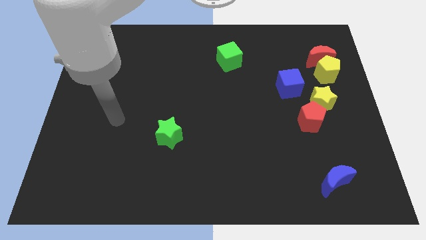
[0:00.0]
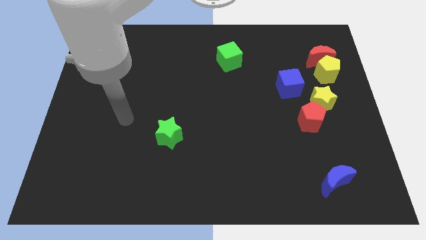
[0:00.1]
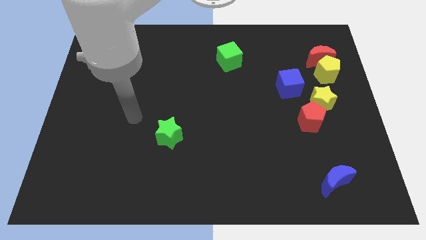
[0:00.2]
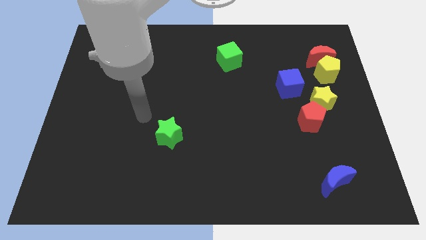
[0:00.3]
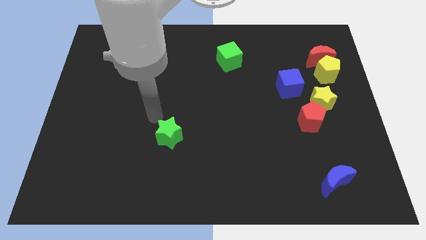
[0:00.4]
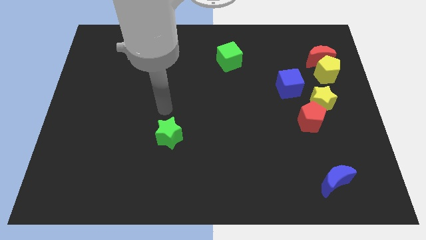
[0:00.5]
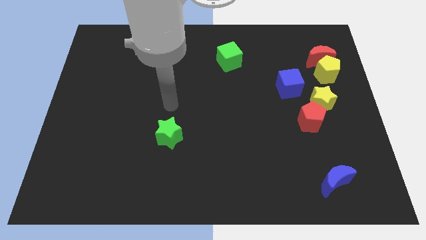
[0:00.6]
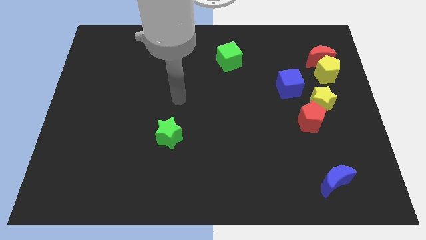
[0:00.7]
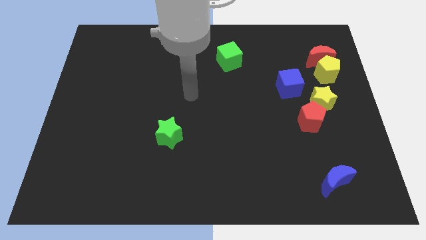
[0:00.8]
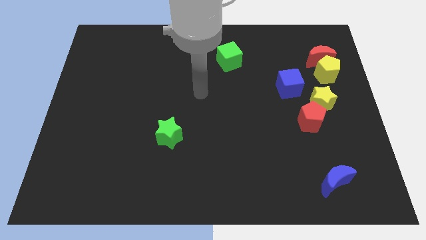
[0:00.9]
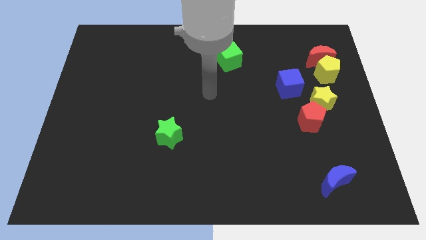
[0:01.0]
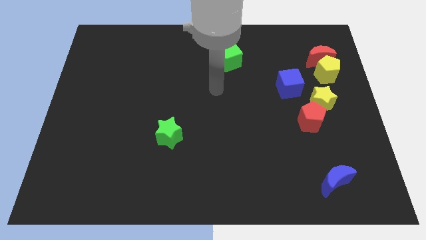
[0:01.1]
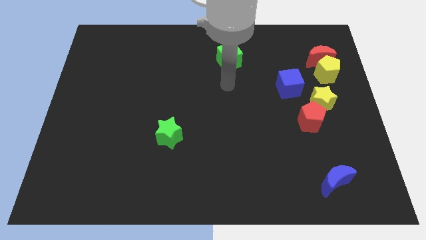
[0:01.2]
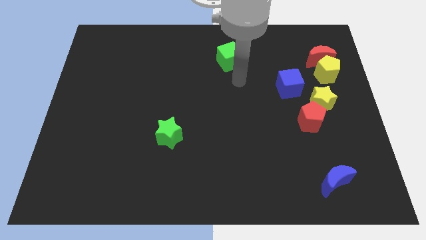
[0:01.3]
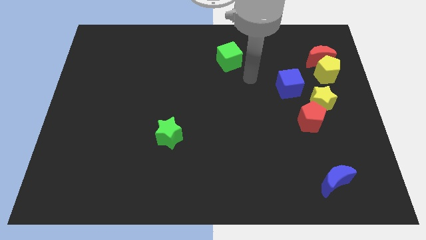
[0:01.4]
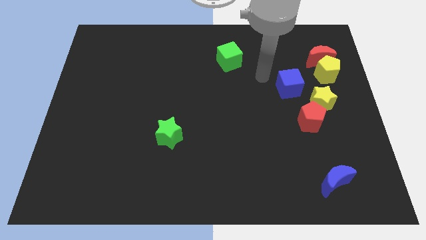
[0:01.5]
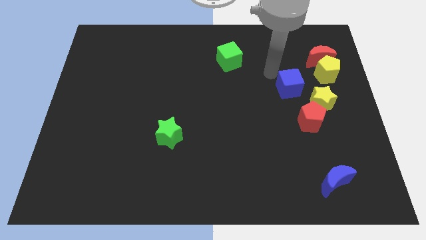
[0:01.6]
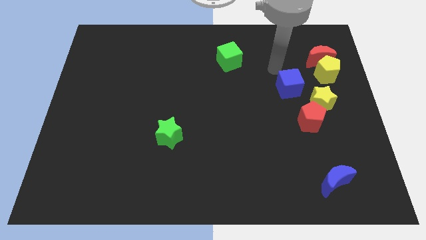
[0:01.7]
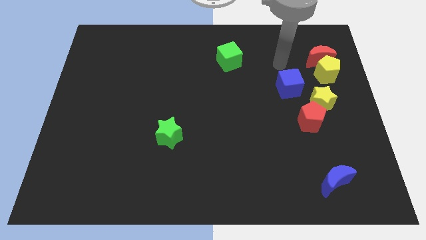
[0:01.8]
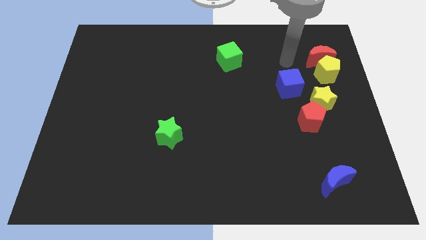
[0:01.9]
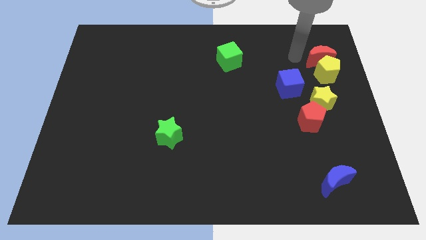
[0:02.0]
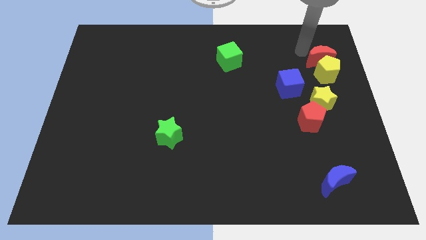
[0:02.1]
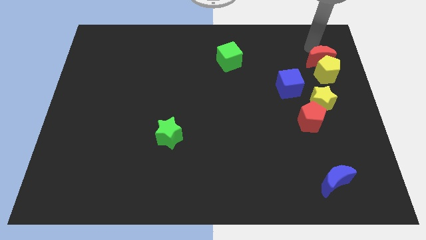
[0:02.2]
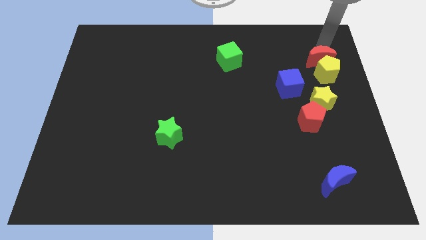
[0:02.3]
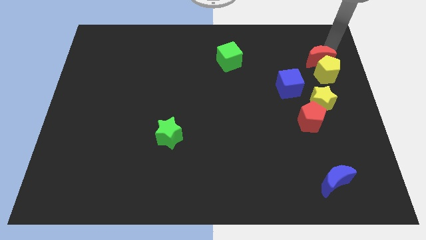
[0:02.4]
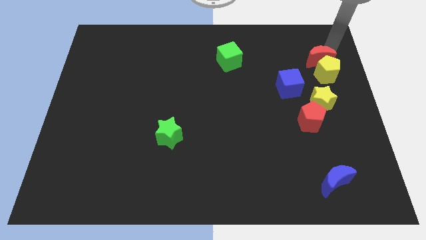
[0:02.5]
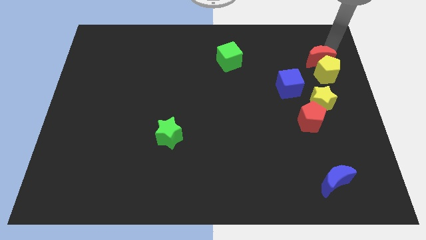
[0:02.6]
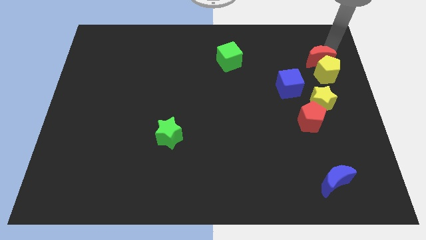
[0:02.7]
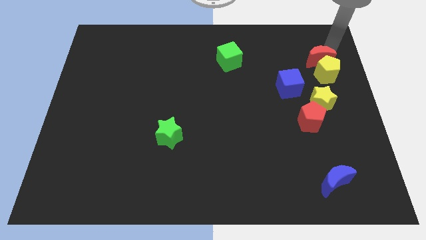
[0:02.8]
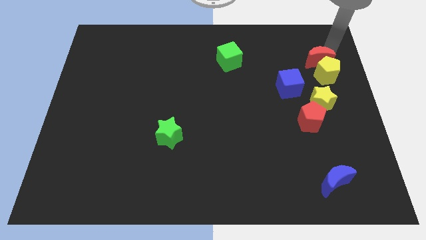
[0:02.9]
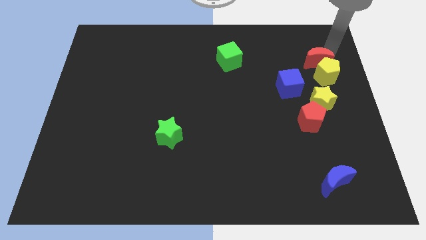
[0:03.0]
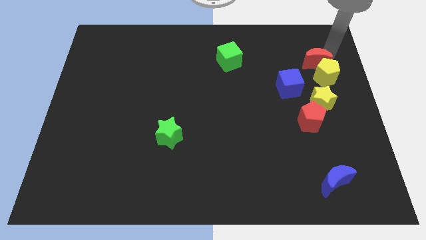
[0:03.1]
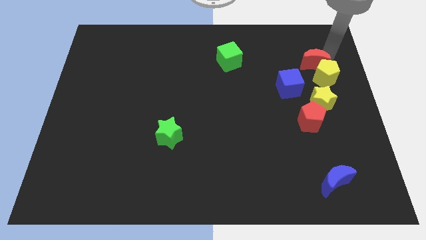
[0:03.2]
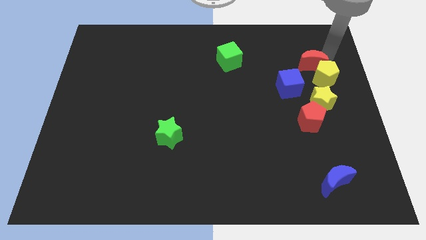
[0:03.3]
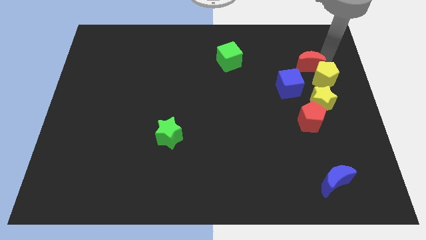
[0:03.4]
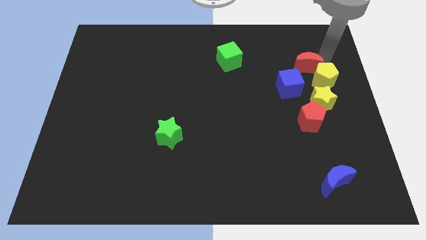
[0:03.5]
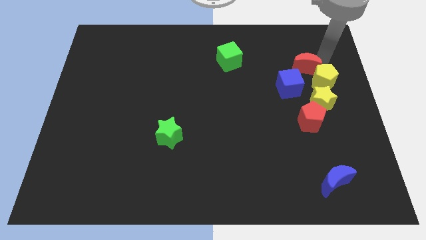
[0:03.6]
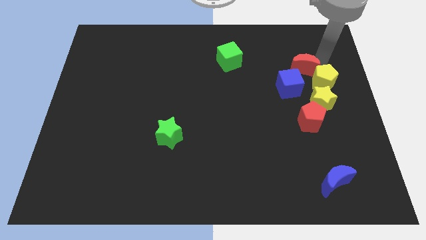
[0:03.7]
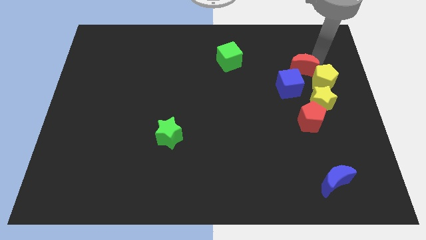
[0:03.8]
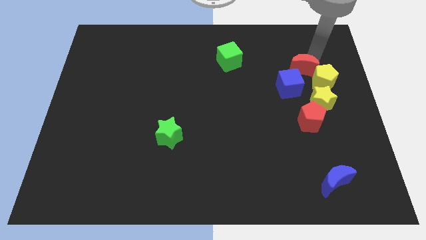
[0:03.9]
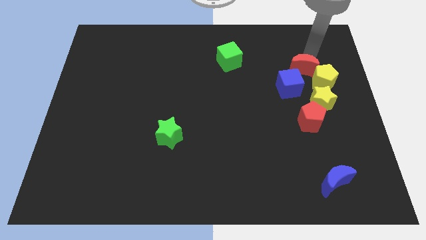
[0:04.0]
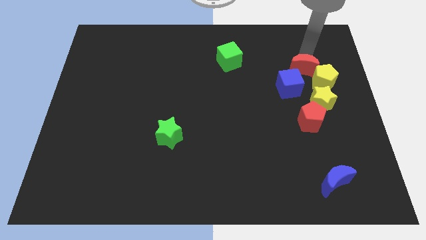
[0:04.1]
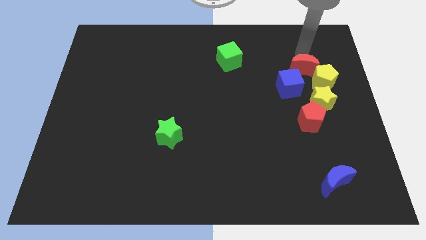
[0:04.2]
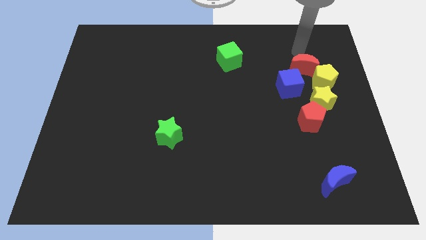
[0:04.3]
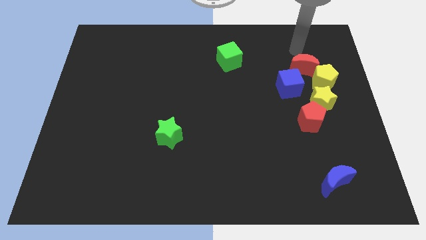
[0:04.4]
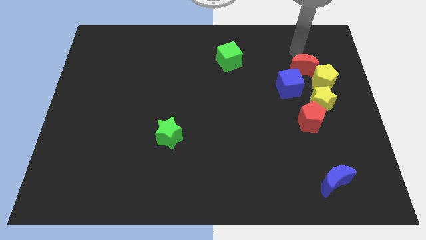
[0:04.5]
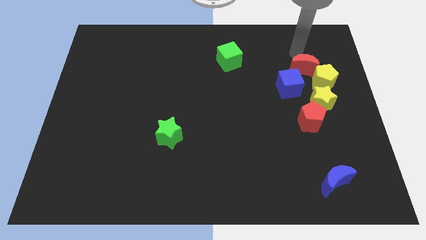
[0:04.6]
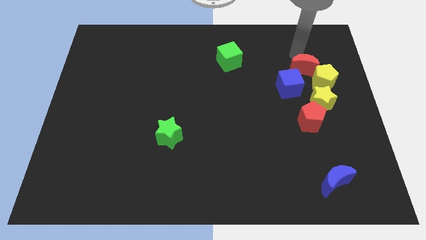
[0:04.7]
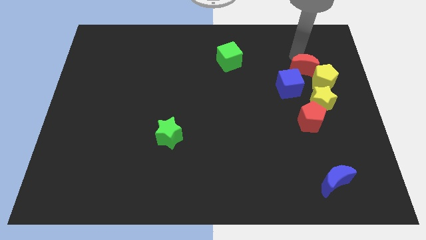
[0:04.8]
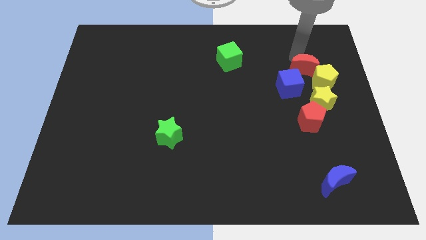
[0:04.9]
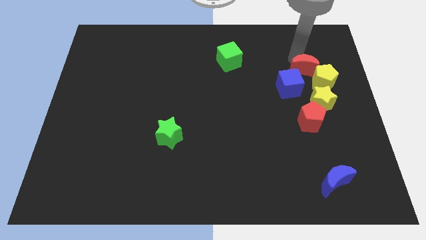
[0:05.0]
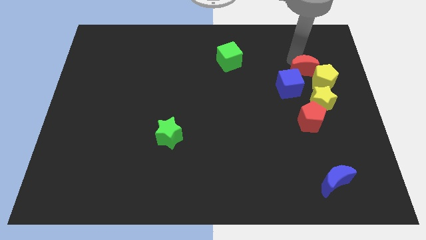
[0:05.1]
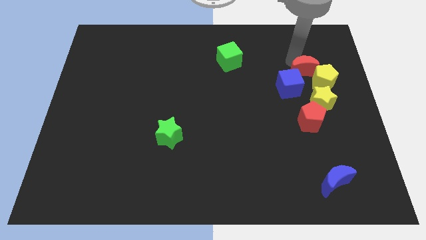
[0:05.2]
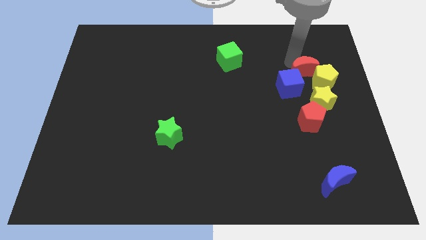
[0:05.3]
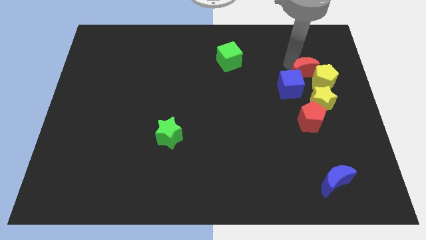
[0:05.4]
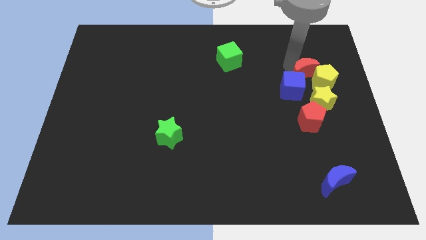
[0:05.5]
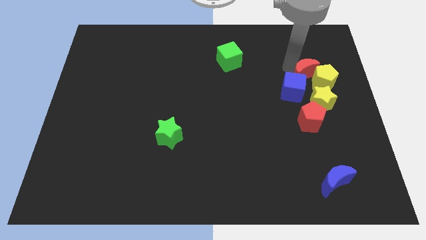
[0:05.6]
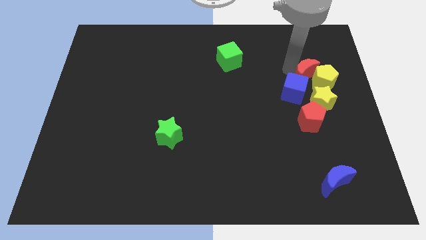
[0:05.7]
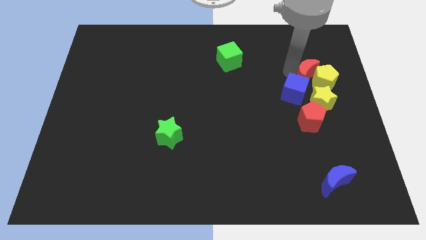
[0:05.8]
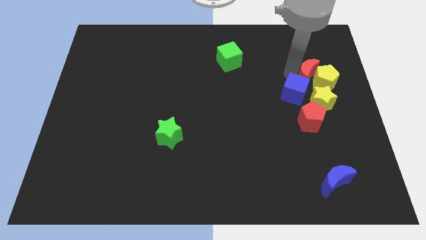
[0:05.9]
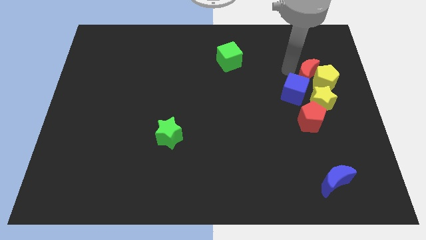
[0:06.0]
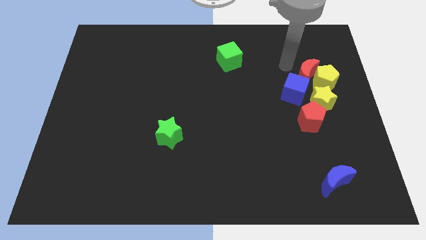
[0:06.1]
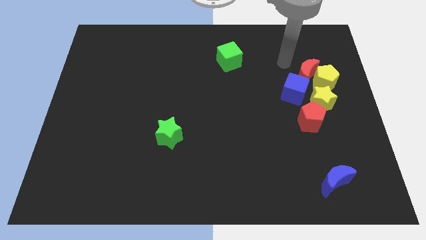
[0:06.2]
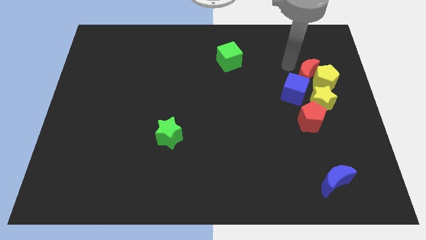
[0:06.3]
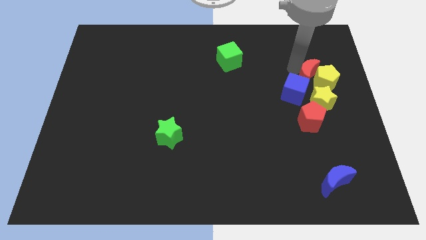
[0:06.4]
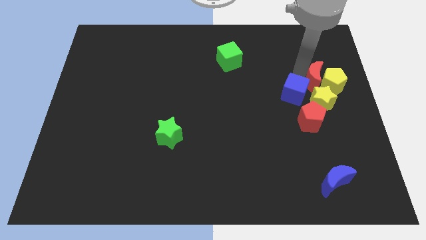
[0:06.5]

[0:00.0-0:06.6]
slide the red moon downwards a little

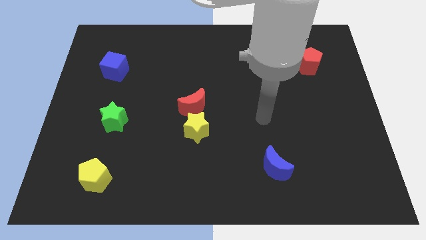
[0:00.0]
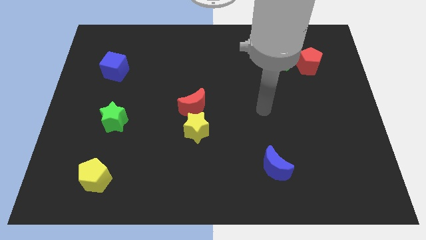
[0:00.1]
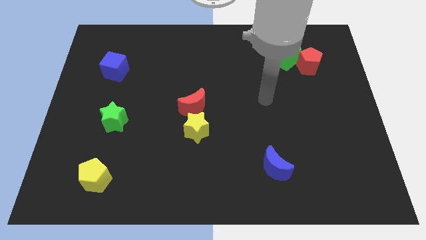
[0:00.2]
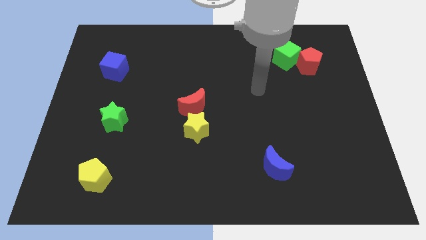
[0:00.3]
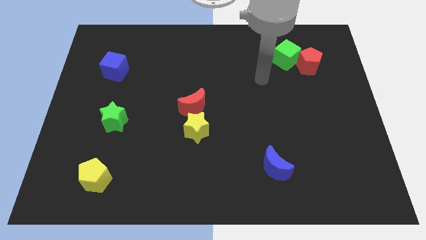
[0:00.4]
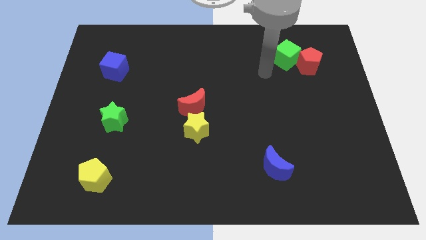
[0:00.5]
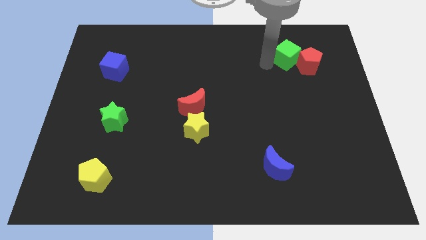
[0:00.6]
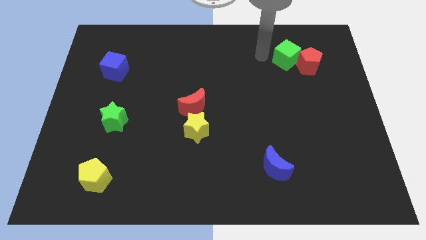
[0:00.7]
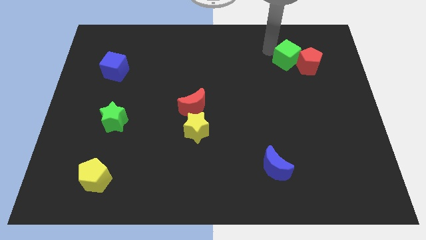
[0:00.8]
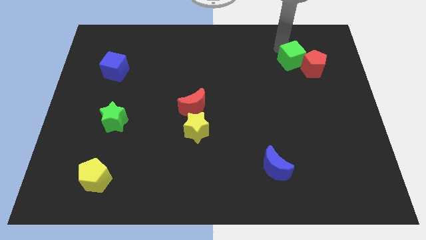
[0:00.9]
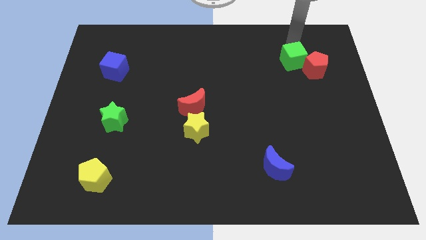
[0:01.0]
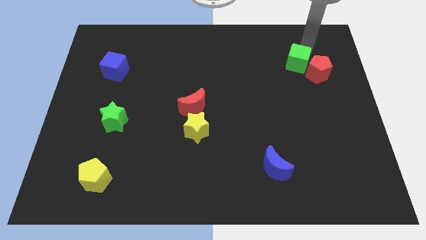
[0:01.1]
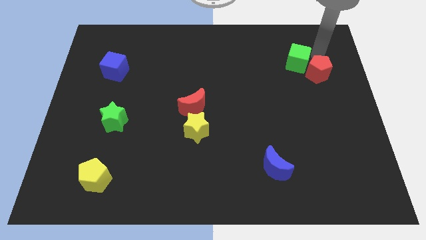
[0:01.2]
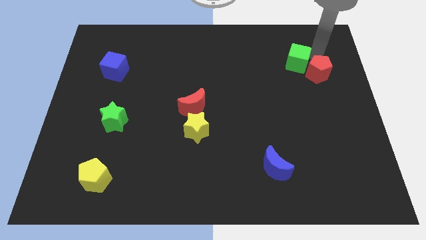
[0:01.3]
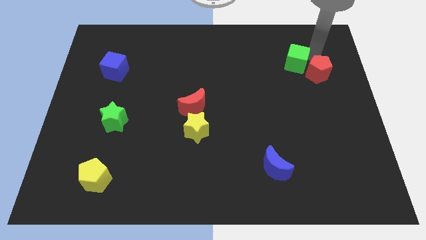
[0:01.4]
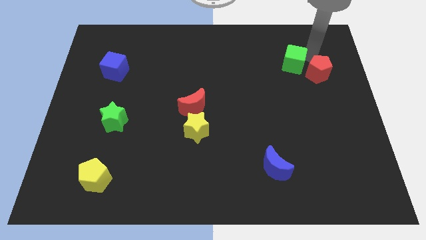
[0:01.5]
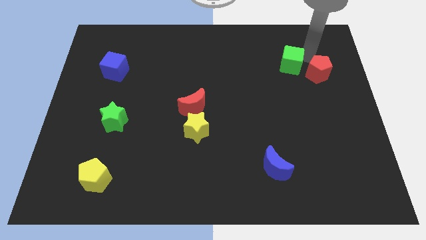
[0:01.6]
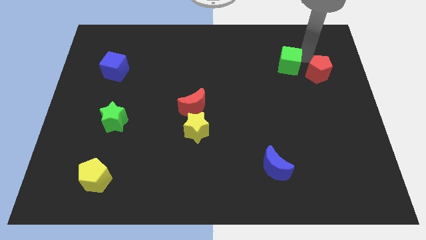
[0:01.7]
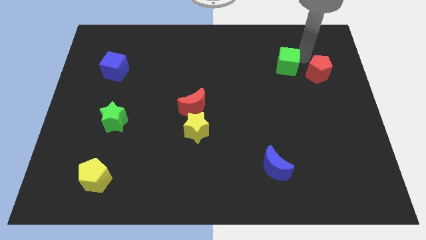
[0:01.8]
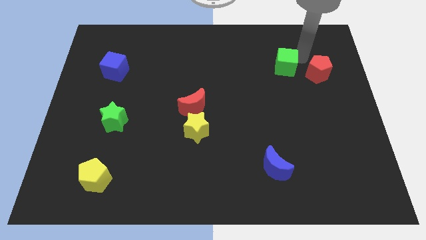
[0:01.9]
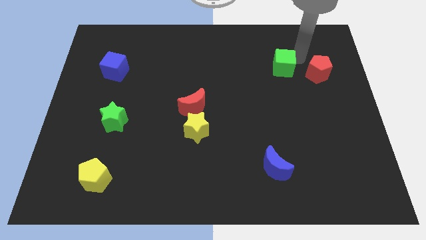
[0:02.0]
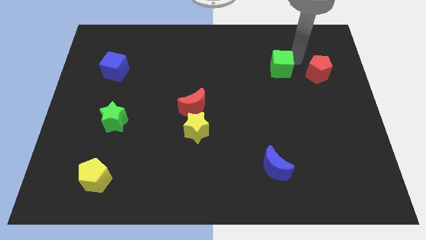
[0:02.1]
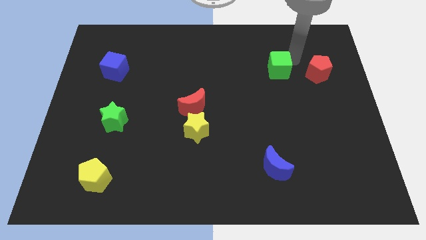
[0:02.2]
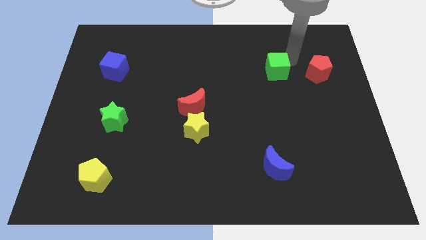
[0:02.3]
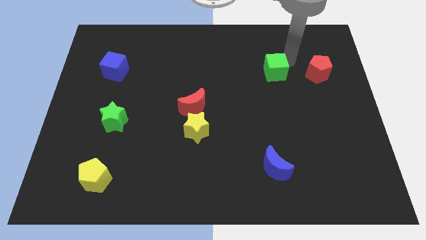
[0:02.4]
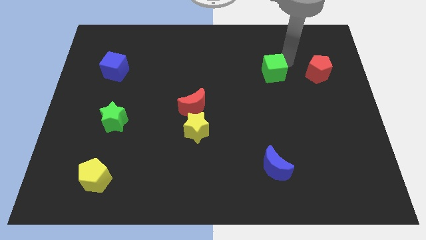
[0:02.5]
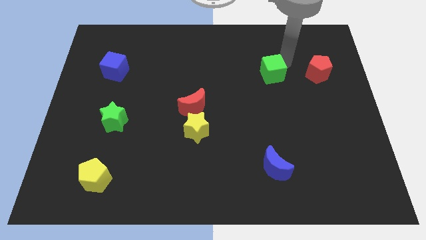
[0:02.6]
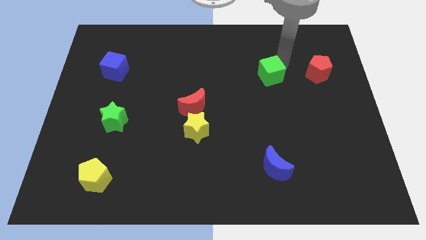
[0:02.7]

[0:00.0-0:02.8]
slightly push the green cube down and left
